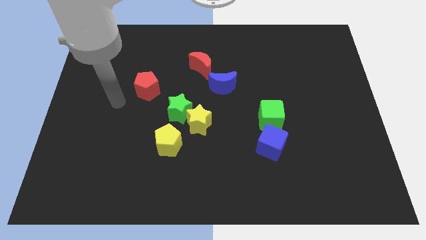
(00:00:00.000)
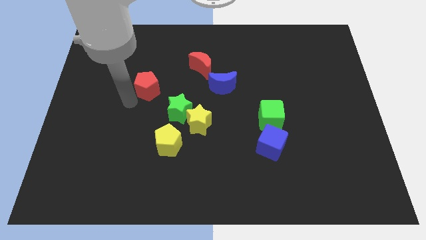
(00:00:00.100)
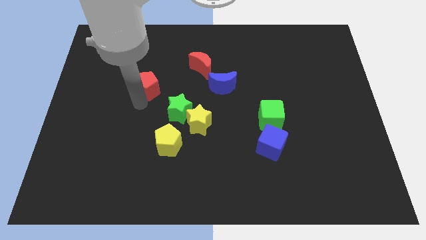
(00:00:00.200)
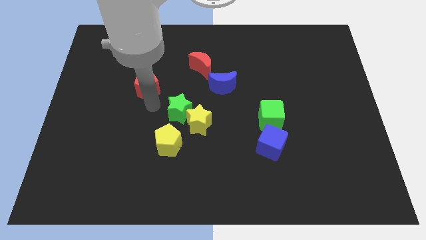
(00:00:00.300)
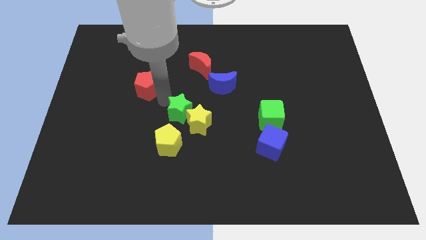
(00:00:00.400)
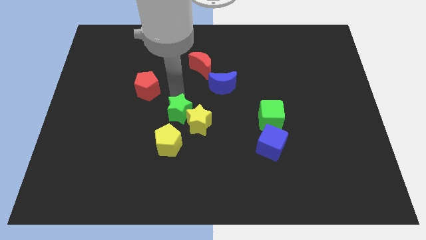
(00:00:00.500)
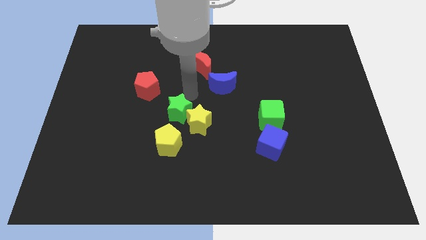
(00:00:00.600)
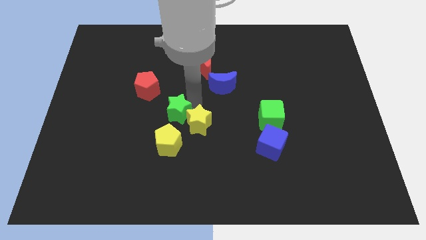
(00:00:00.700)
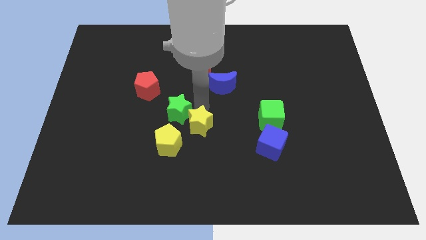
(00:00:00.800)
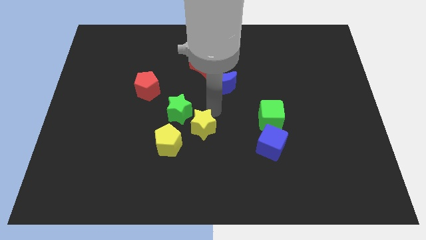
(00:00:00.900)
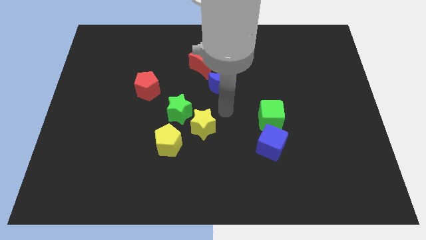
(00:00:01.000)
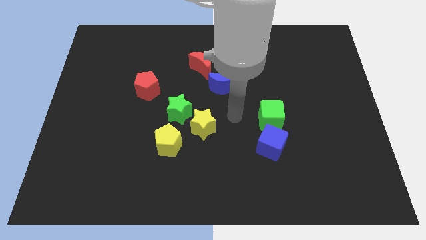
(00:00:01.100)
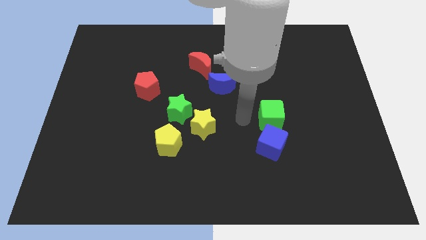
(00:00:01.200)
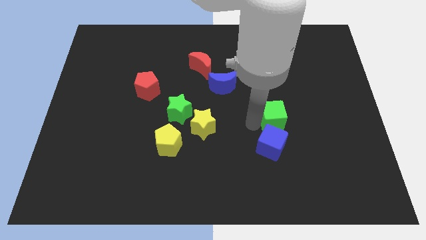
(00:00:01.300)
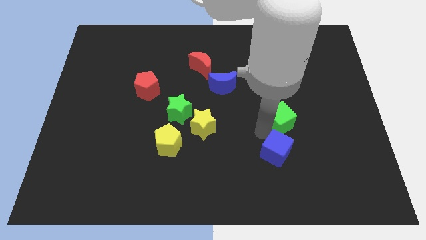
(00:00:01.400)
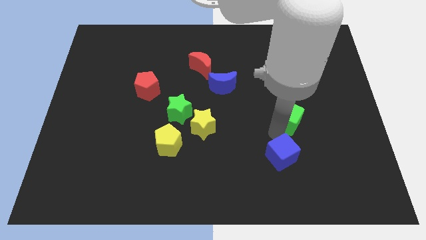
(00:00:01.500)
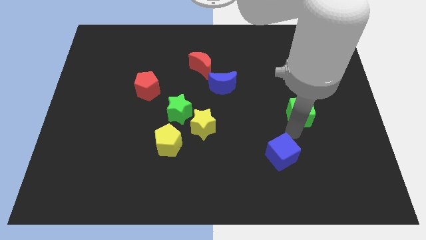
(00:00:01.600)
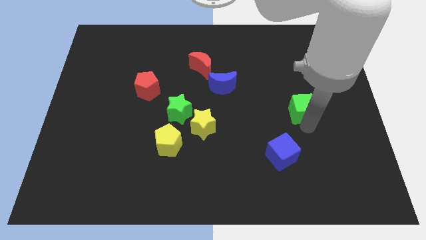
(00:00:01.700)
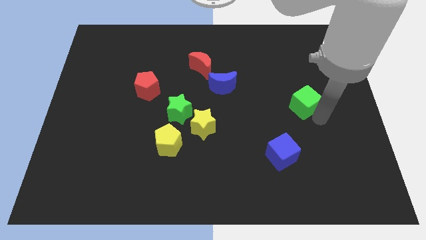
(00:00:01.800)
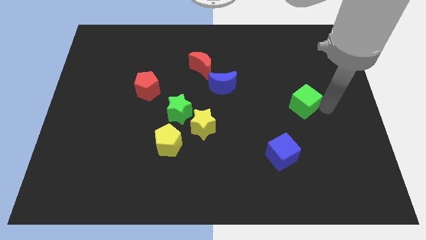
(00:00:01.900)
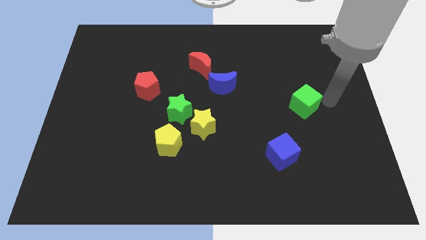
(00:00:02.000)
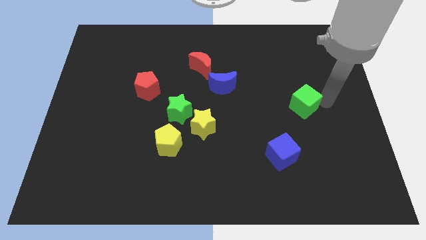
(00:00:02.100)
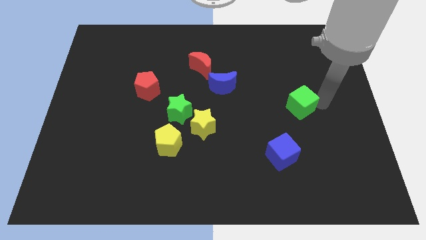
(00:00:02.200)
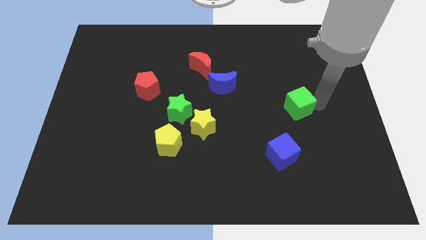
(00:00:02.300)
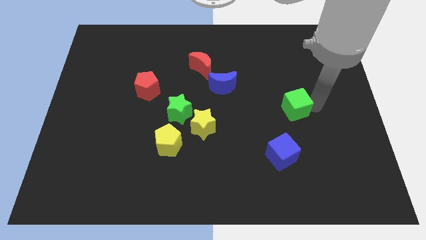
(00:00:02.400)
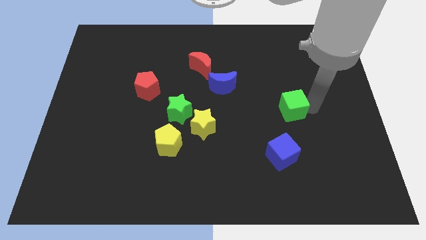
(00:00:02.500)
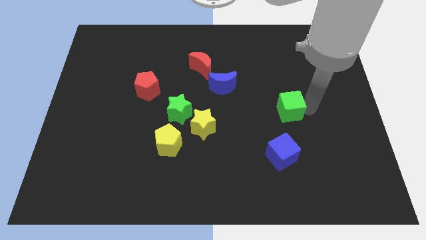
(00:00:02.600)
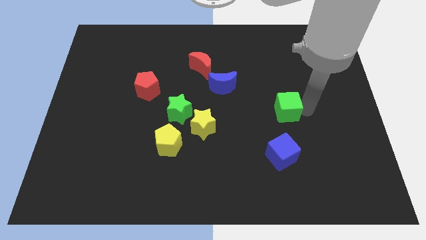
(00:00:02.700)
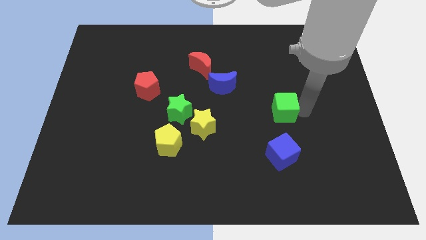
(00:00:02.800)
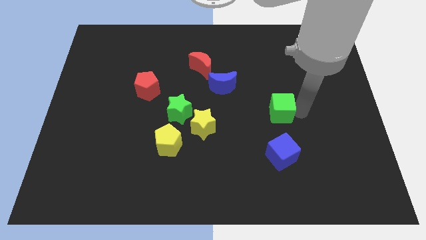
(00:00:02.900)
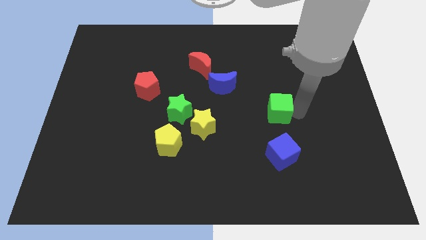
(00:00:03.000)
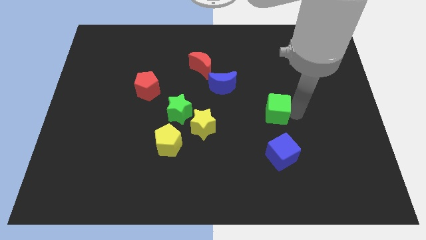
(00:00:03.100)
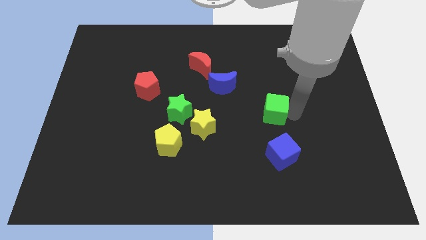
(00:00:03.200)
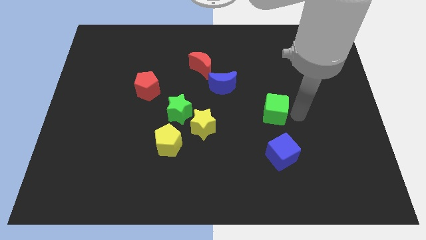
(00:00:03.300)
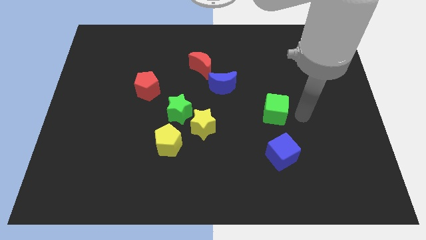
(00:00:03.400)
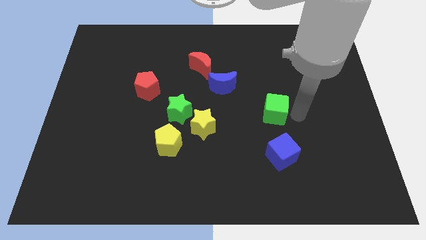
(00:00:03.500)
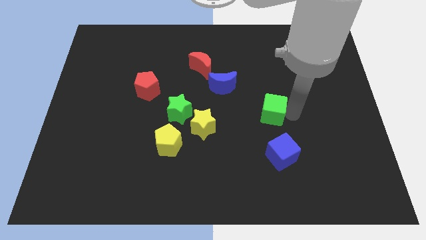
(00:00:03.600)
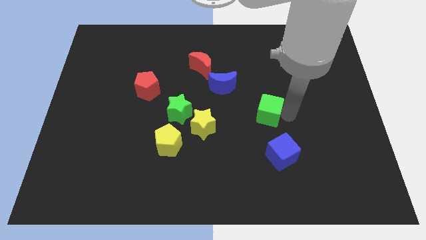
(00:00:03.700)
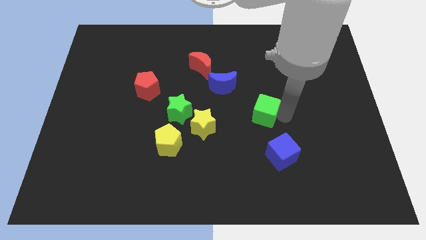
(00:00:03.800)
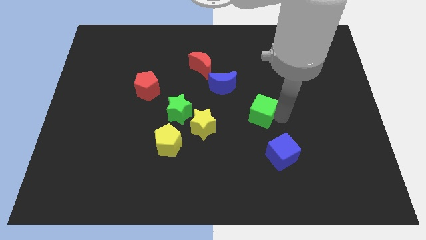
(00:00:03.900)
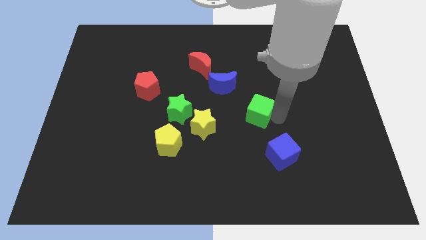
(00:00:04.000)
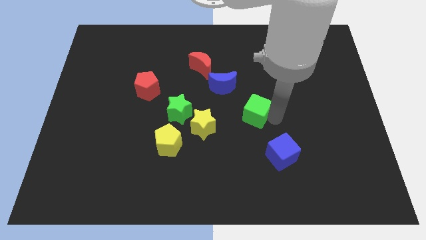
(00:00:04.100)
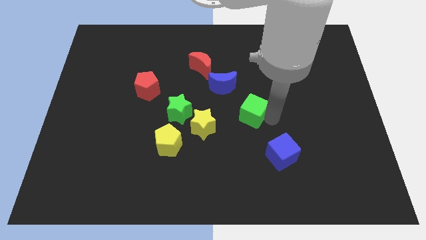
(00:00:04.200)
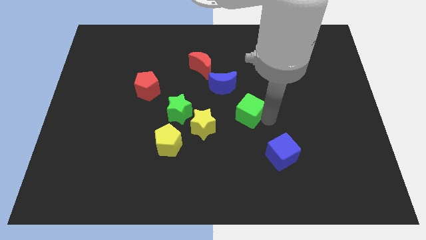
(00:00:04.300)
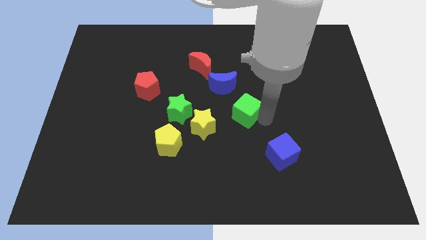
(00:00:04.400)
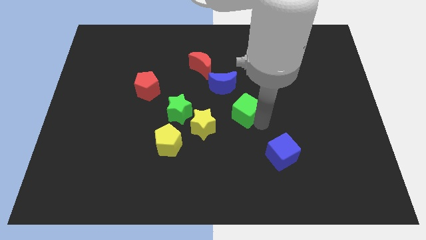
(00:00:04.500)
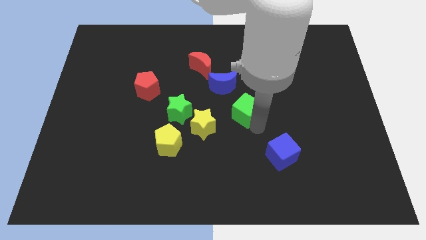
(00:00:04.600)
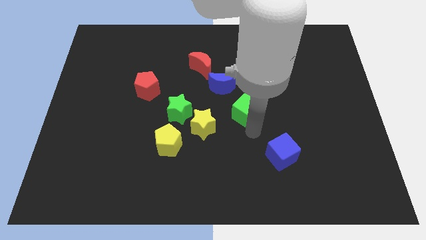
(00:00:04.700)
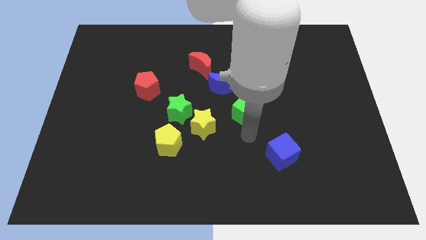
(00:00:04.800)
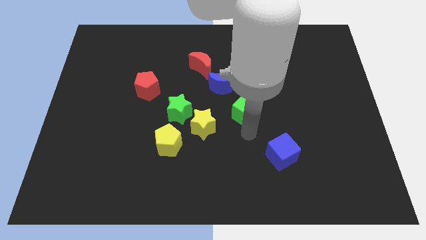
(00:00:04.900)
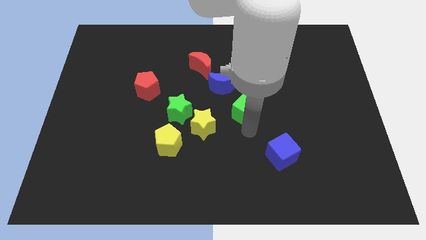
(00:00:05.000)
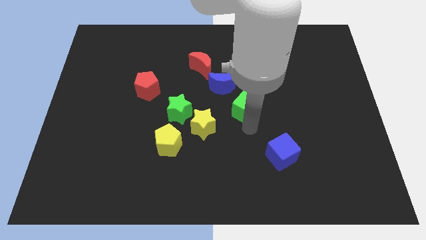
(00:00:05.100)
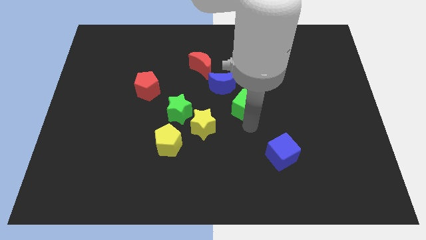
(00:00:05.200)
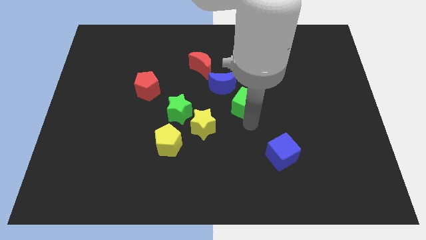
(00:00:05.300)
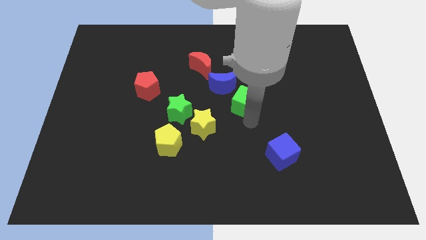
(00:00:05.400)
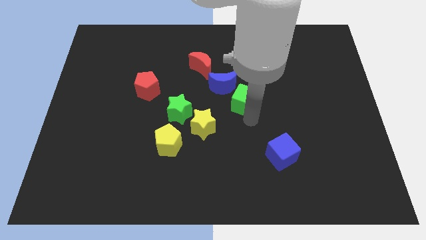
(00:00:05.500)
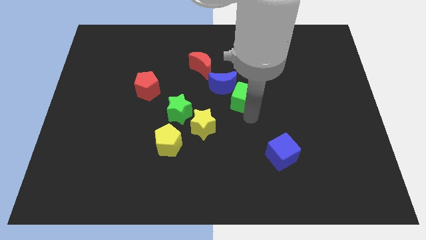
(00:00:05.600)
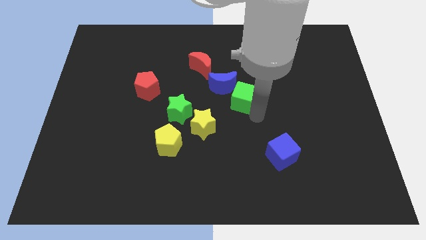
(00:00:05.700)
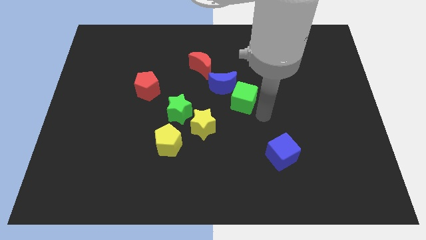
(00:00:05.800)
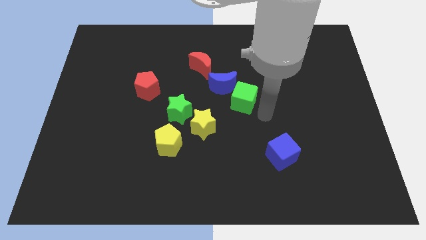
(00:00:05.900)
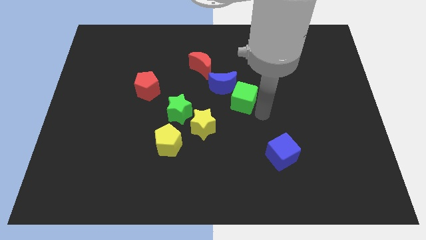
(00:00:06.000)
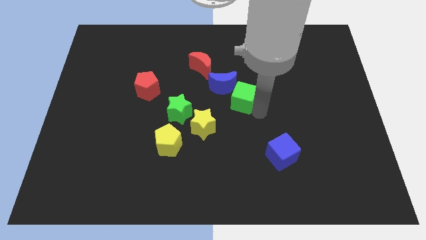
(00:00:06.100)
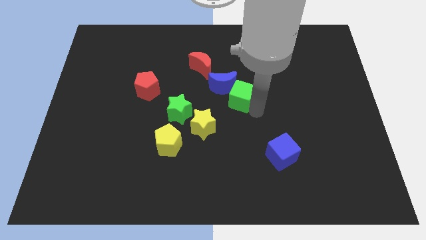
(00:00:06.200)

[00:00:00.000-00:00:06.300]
push the green cube next to the blue moon
